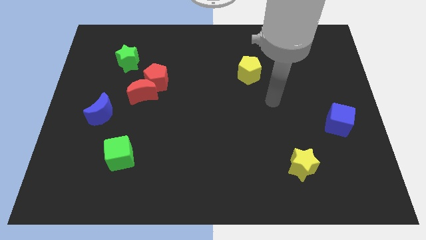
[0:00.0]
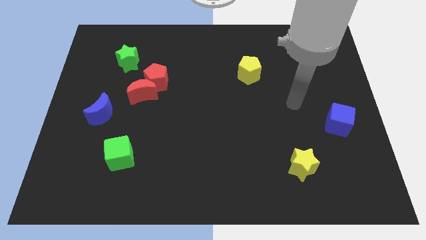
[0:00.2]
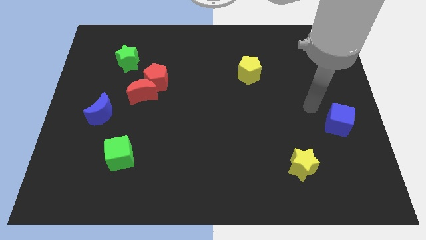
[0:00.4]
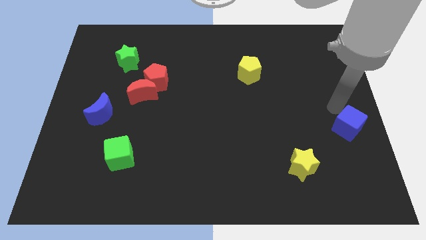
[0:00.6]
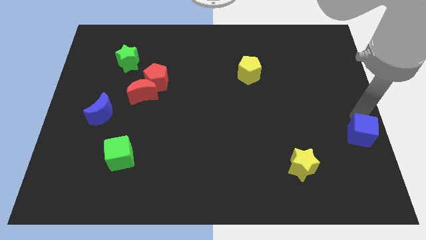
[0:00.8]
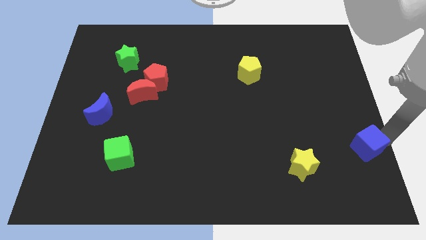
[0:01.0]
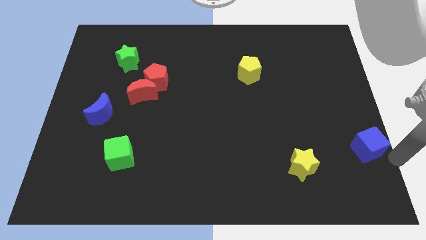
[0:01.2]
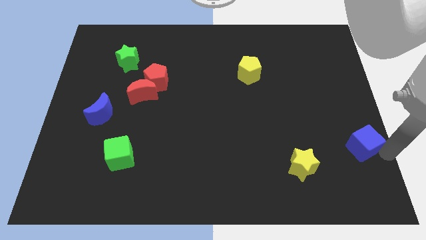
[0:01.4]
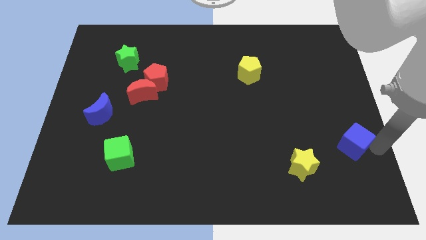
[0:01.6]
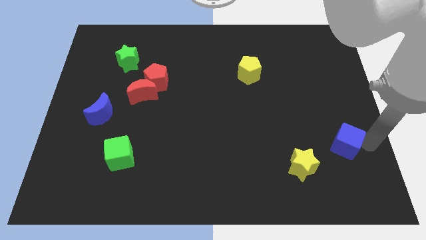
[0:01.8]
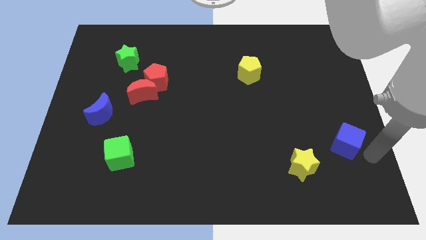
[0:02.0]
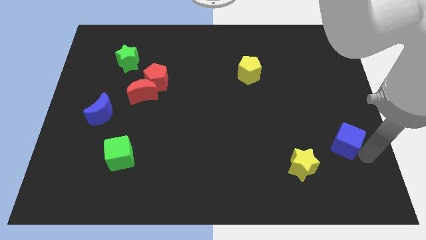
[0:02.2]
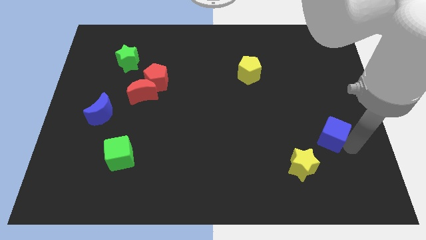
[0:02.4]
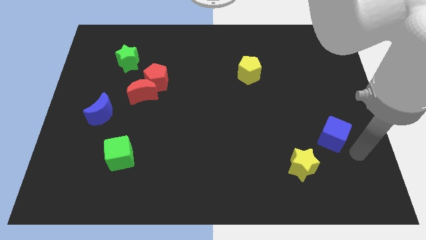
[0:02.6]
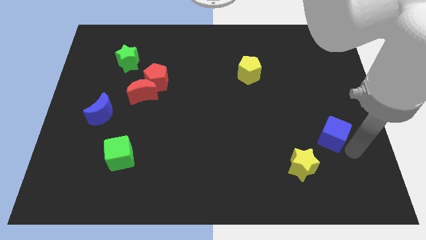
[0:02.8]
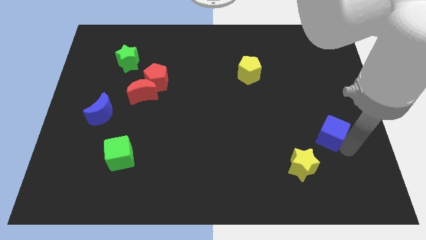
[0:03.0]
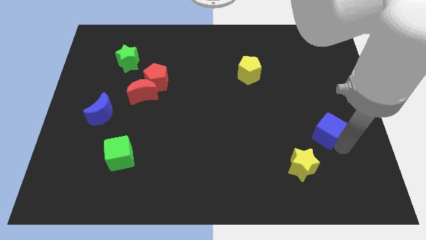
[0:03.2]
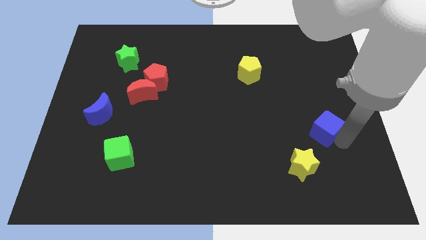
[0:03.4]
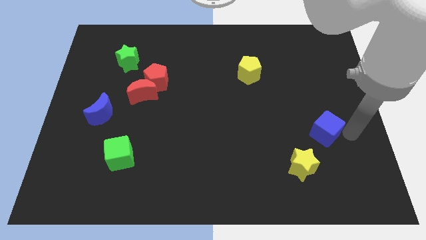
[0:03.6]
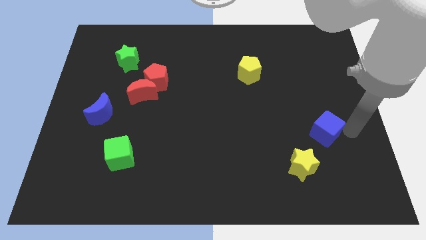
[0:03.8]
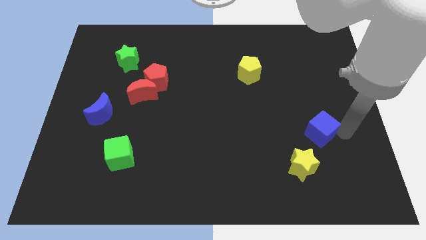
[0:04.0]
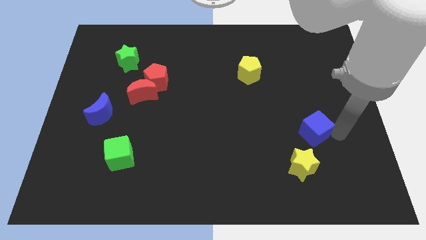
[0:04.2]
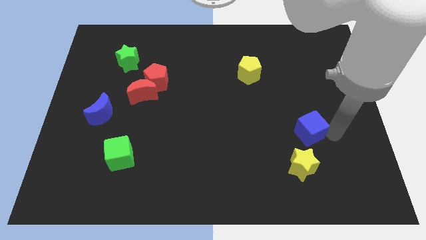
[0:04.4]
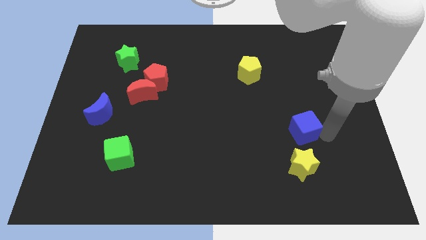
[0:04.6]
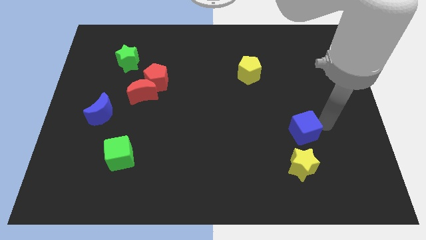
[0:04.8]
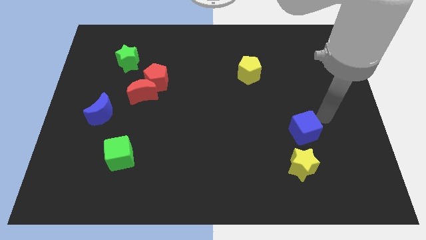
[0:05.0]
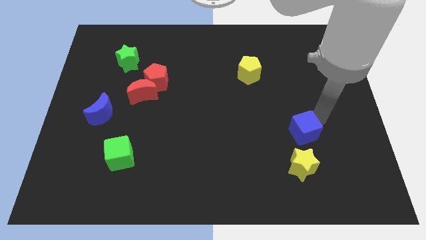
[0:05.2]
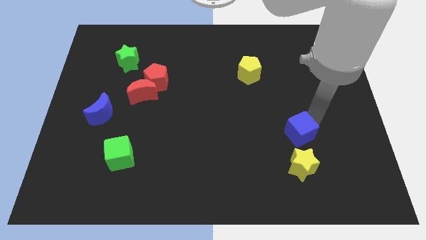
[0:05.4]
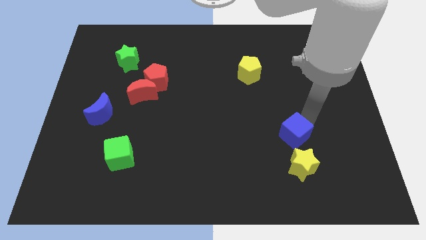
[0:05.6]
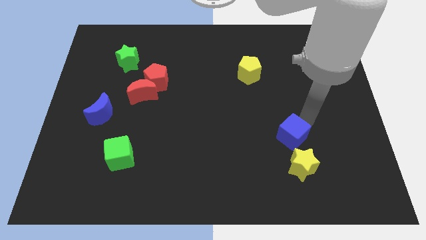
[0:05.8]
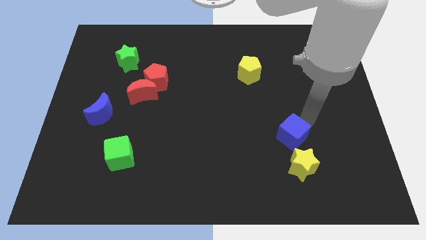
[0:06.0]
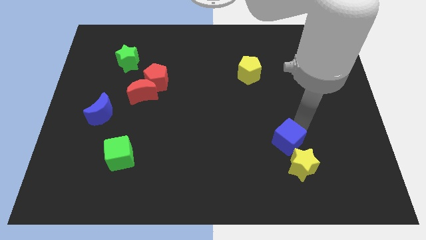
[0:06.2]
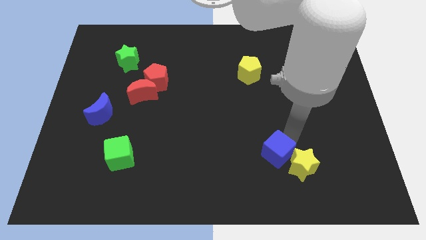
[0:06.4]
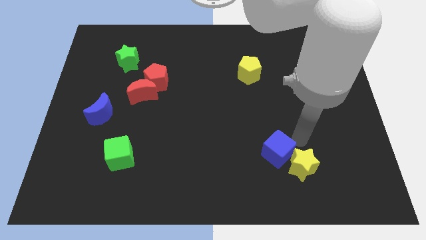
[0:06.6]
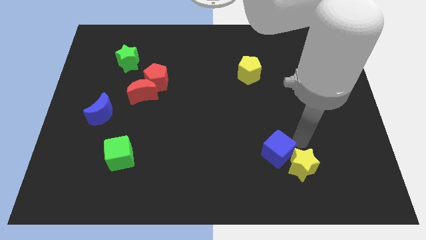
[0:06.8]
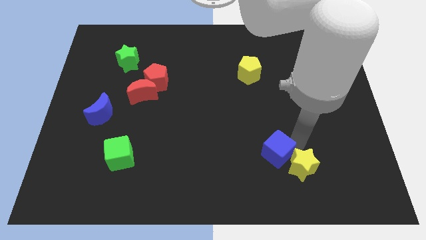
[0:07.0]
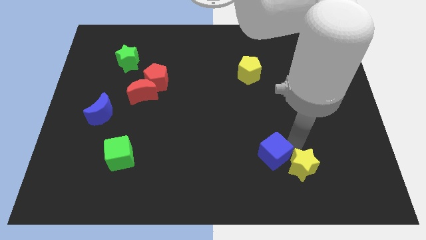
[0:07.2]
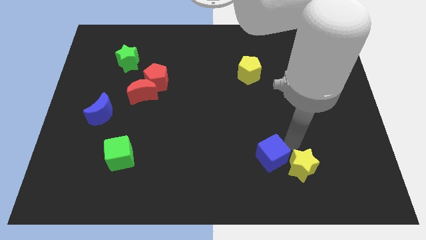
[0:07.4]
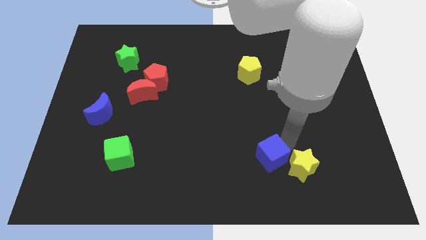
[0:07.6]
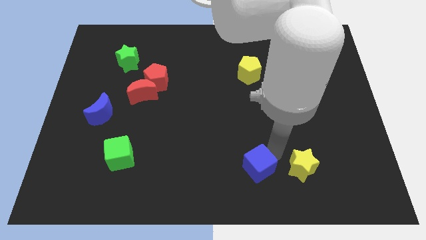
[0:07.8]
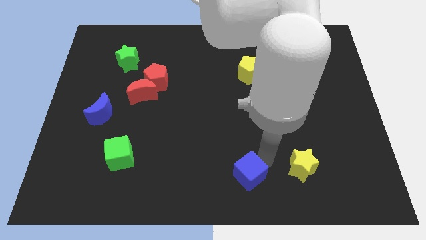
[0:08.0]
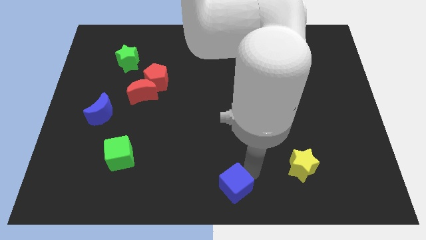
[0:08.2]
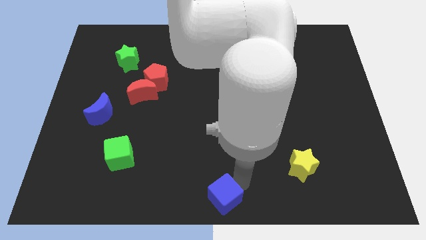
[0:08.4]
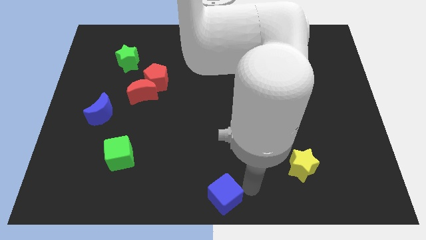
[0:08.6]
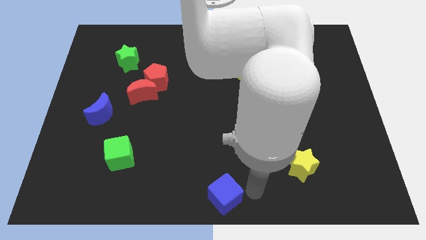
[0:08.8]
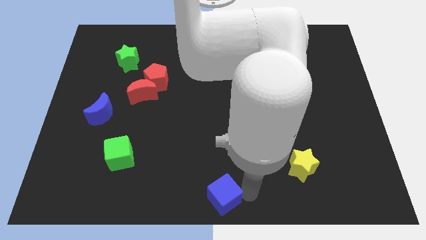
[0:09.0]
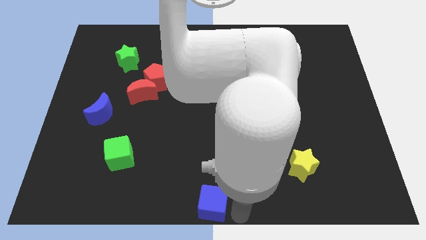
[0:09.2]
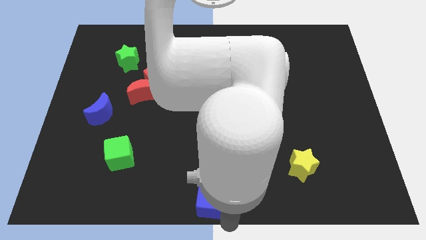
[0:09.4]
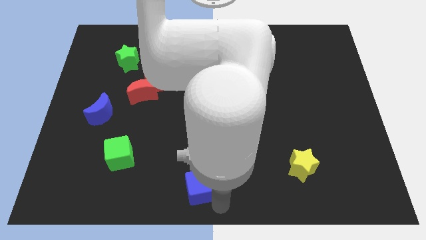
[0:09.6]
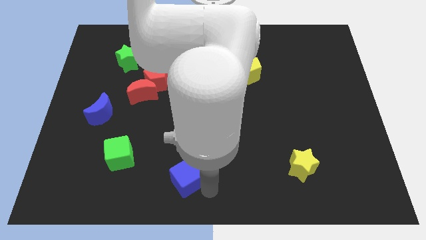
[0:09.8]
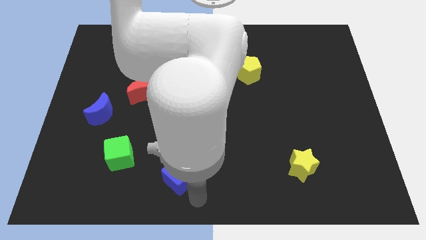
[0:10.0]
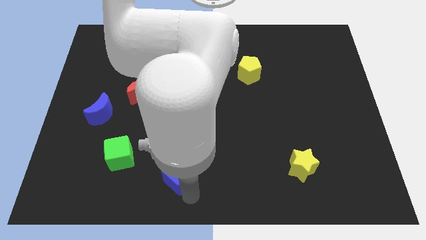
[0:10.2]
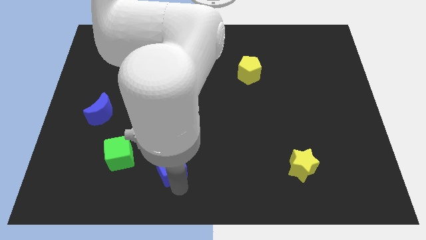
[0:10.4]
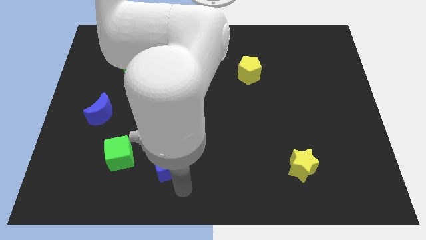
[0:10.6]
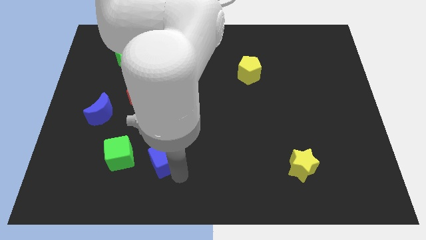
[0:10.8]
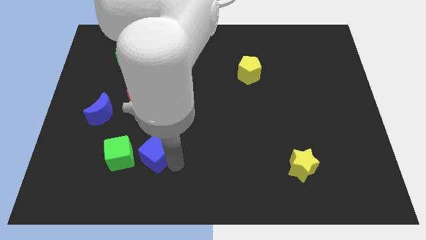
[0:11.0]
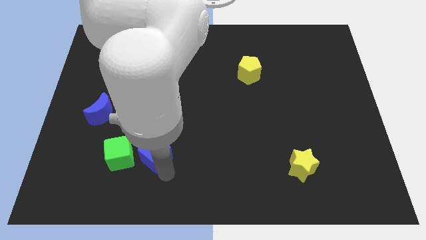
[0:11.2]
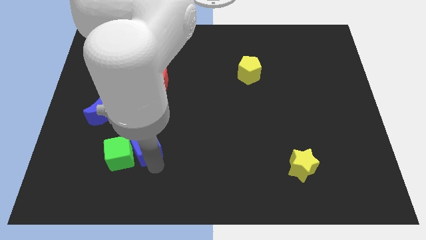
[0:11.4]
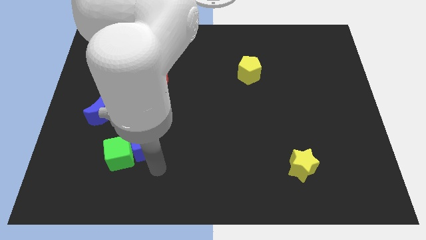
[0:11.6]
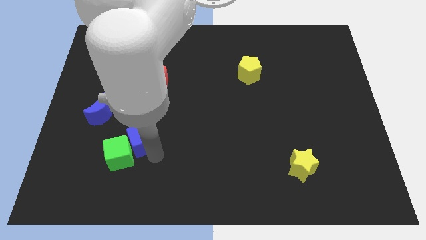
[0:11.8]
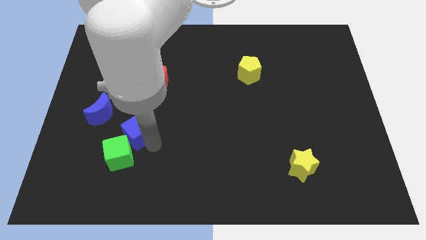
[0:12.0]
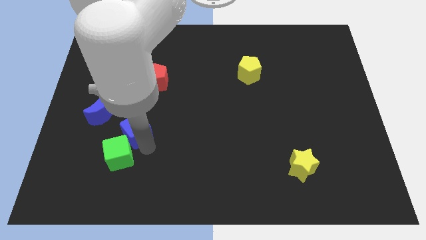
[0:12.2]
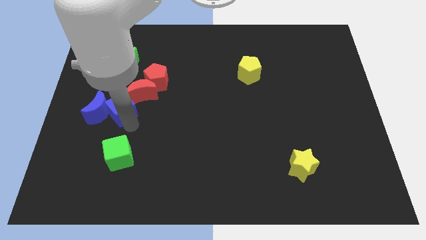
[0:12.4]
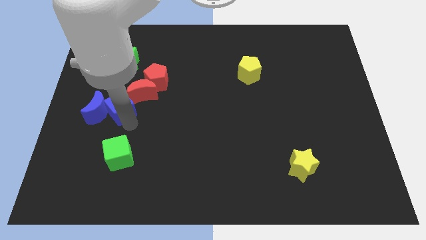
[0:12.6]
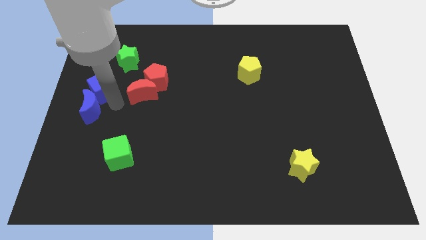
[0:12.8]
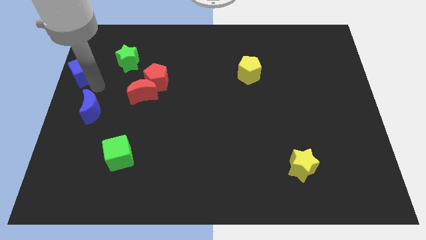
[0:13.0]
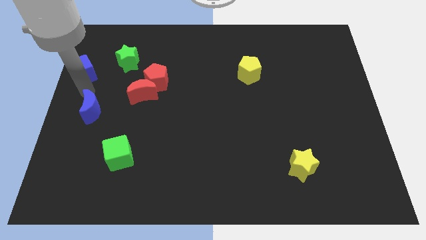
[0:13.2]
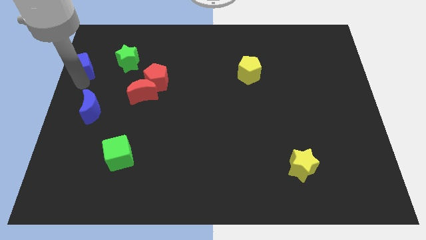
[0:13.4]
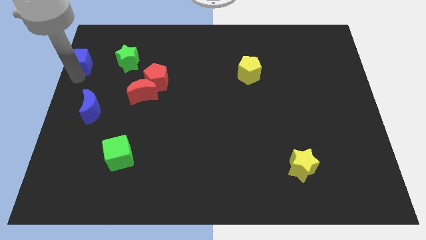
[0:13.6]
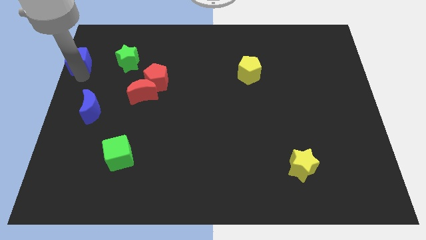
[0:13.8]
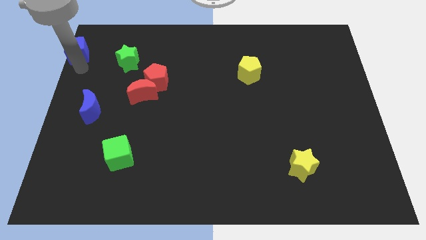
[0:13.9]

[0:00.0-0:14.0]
move the blue cube to the top left corner
